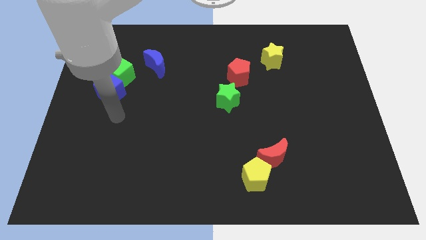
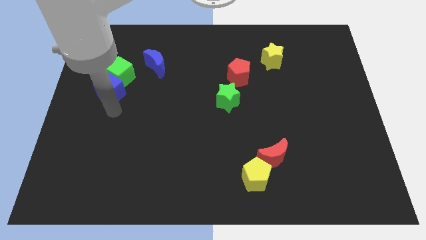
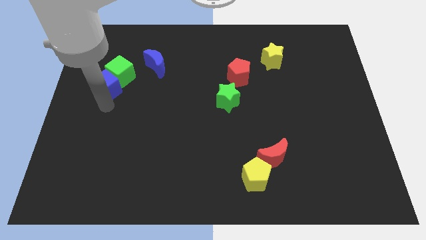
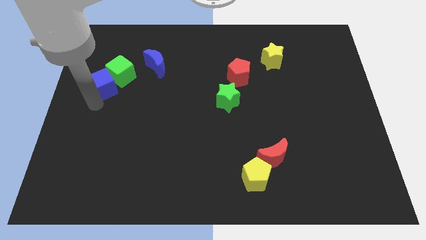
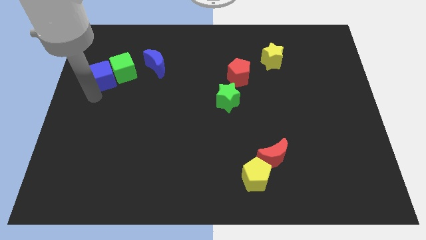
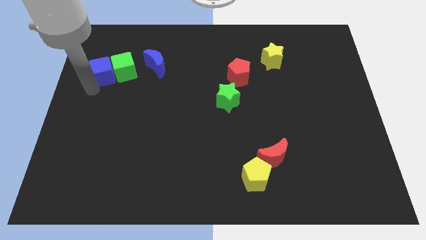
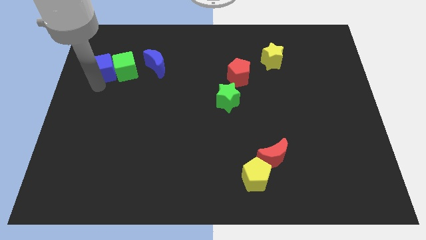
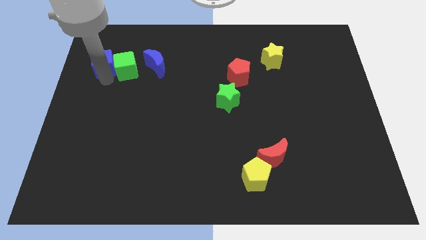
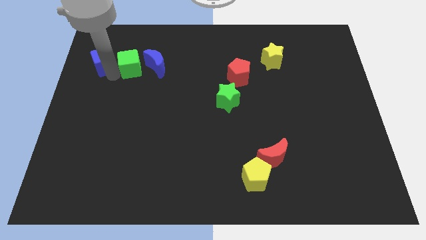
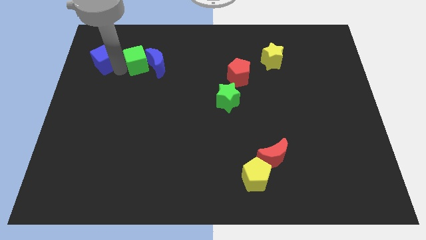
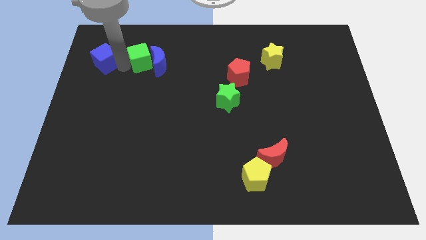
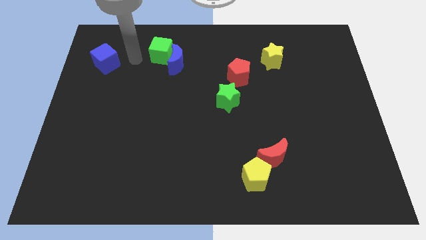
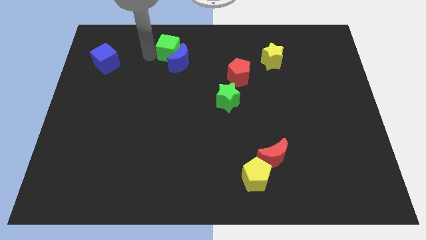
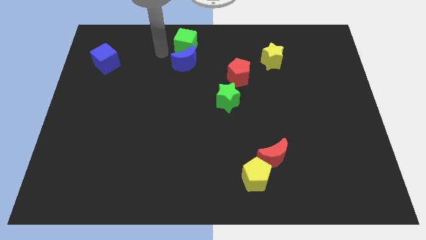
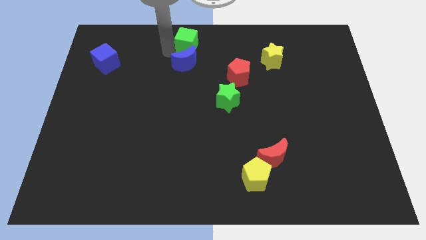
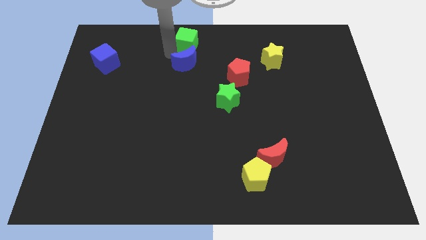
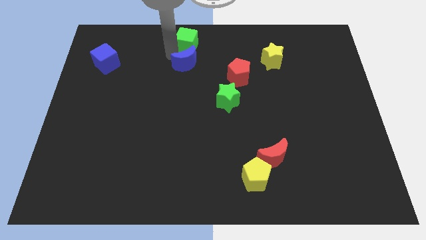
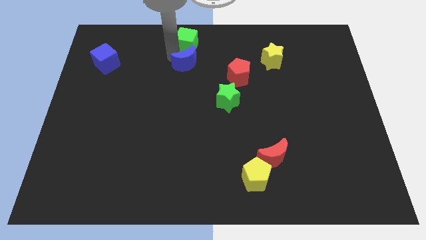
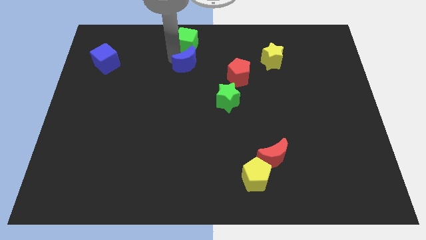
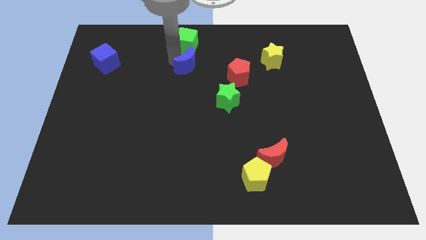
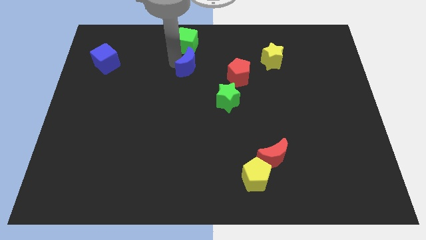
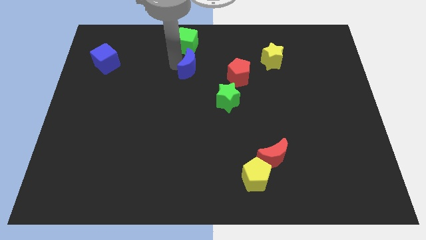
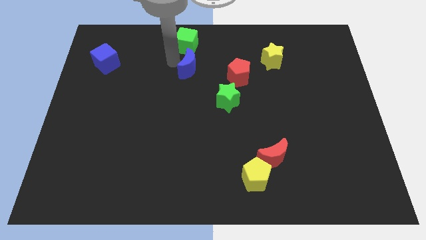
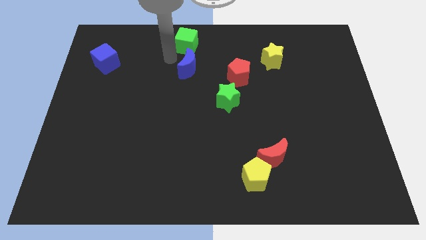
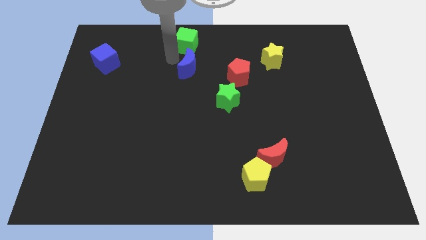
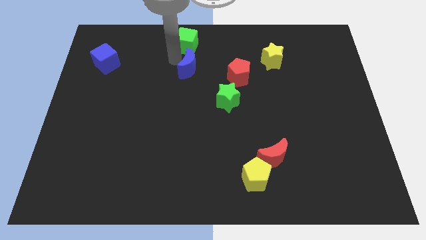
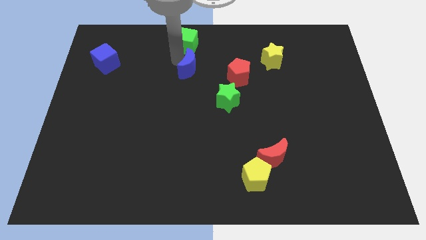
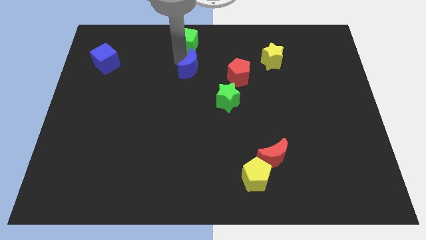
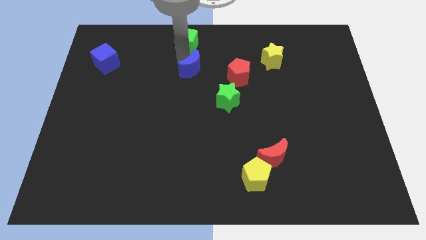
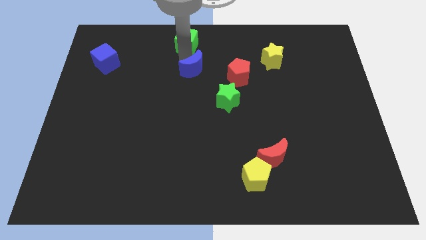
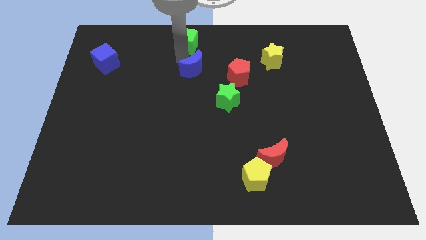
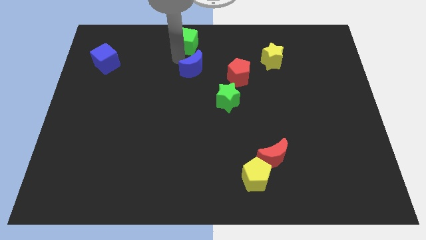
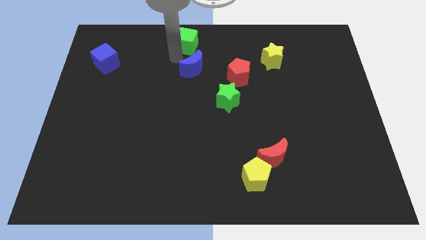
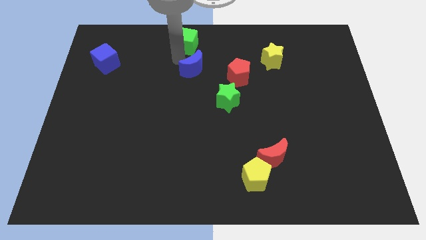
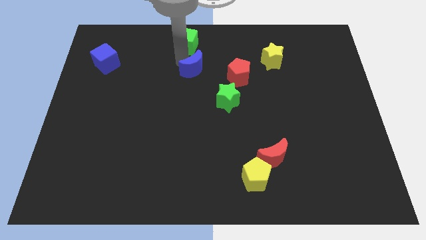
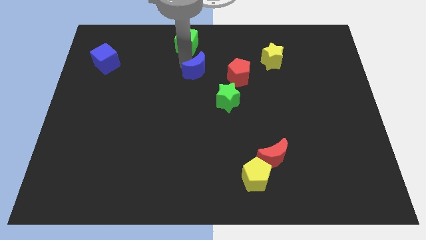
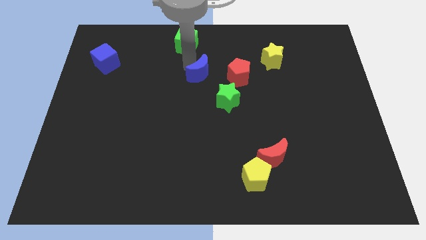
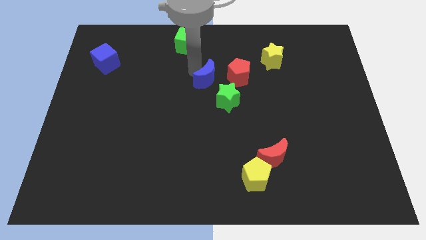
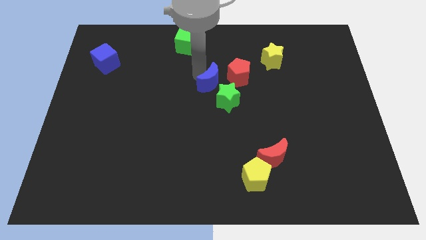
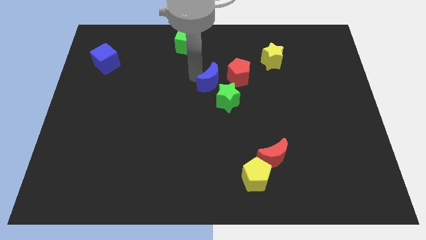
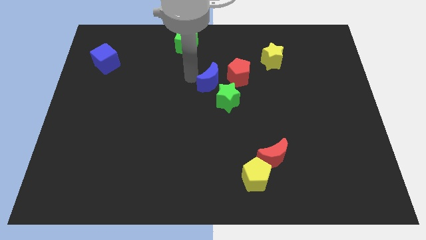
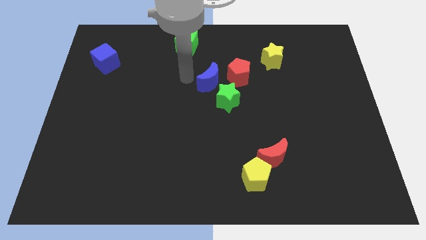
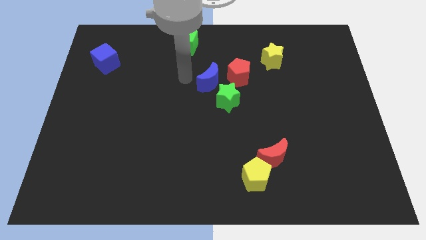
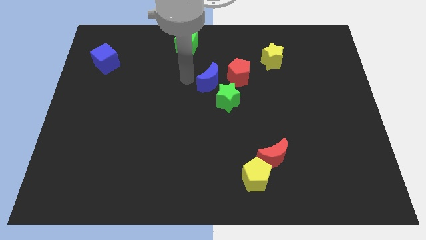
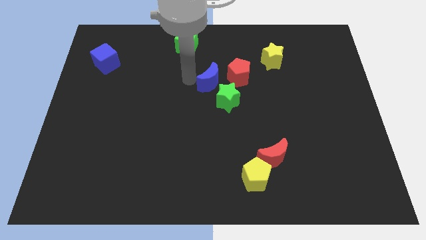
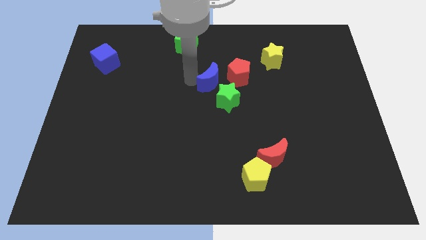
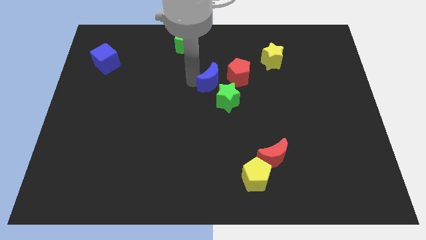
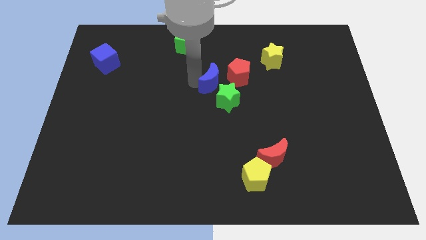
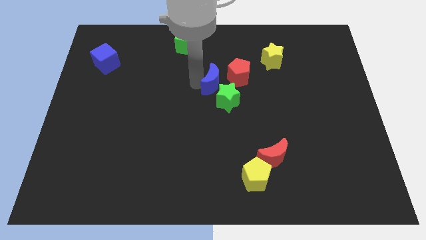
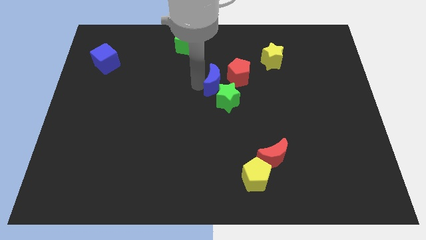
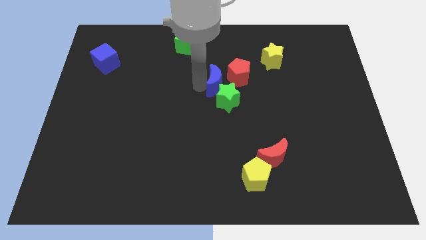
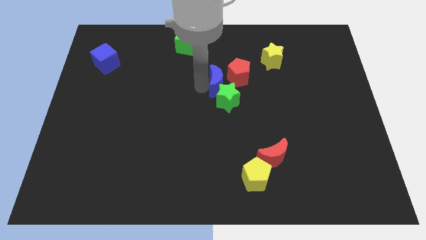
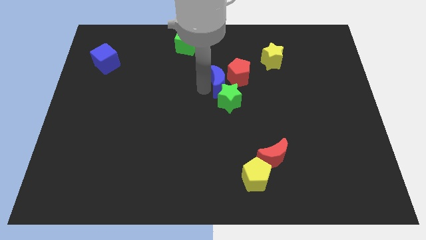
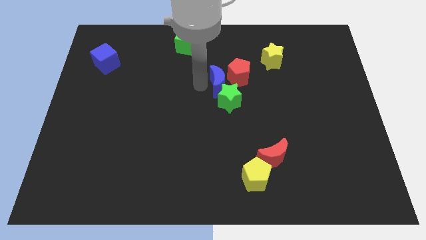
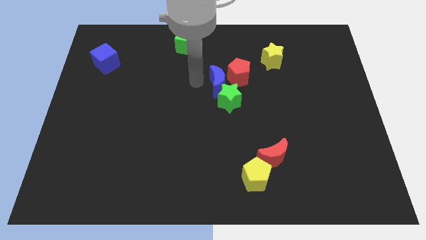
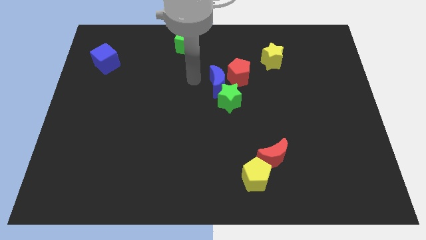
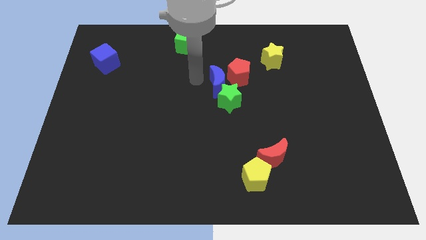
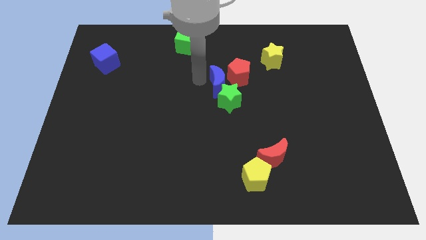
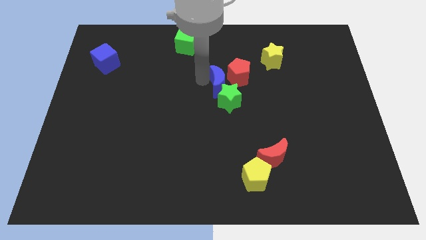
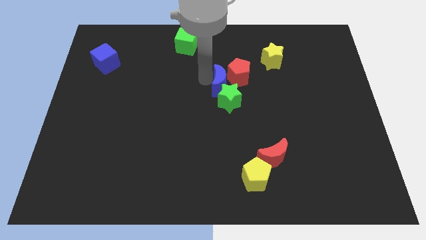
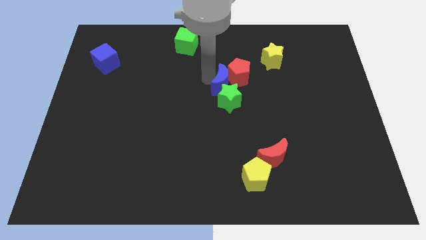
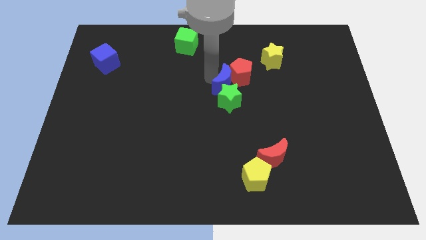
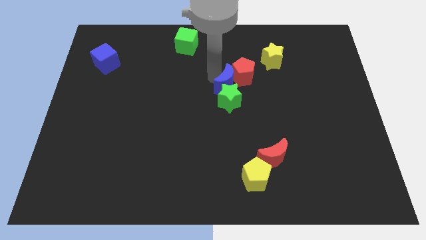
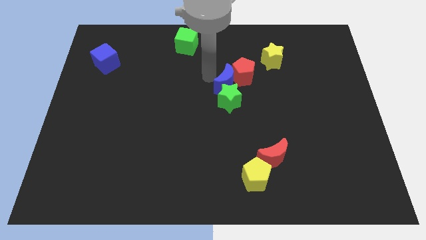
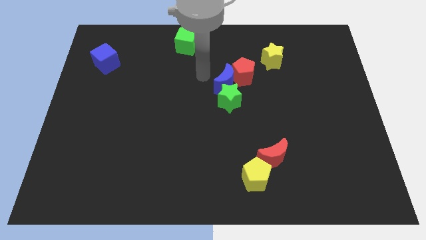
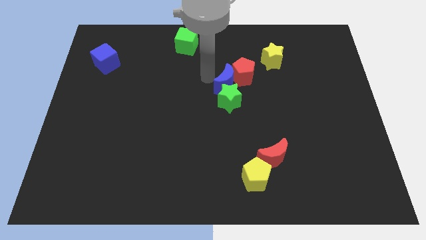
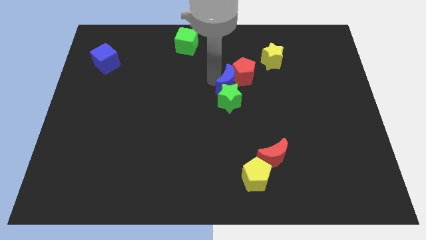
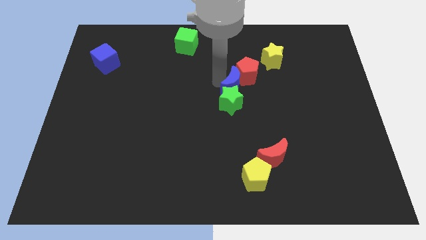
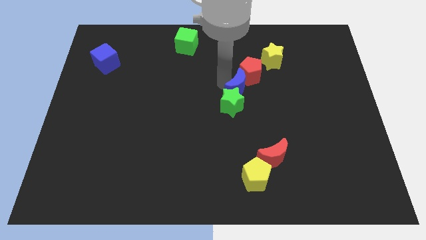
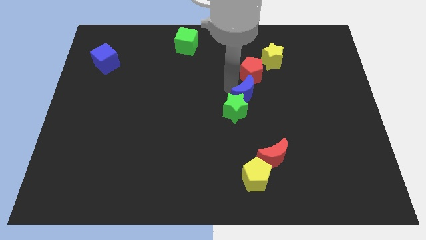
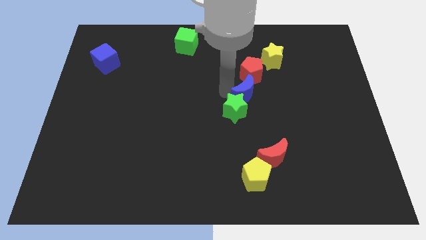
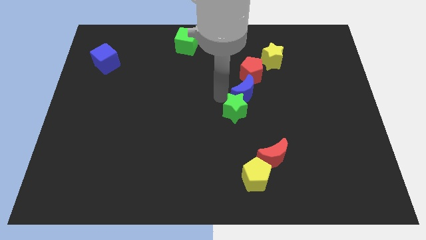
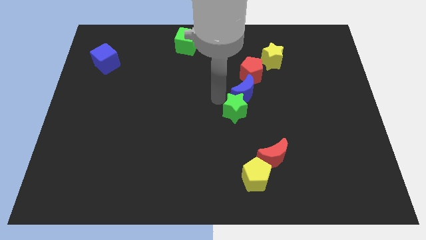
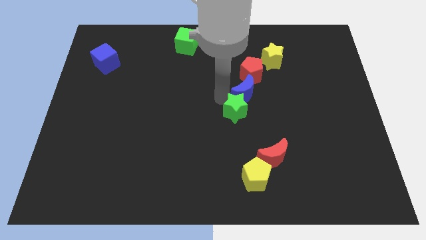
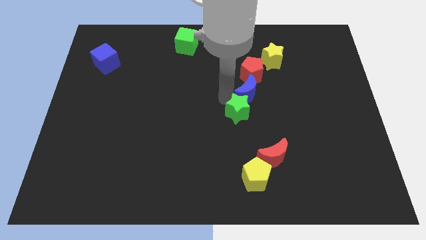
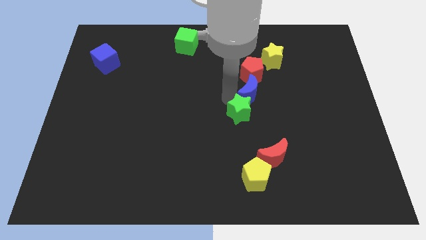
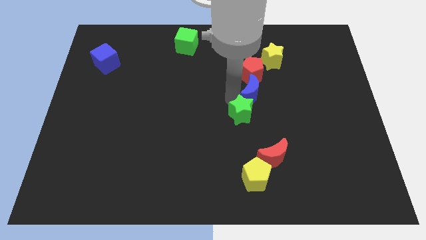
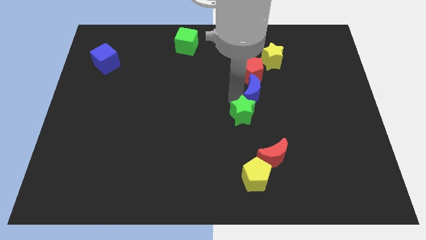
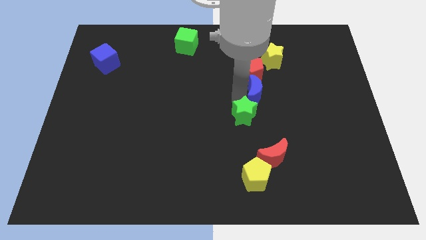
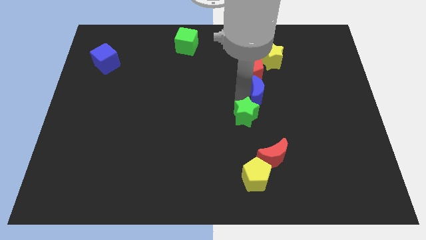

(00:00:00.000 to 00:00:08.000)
move the blue moon to the bottom side of the yellow star
